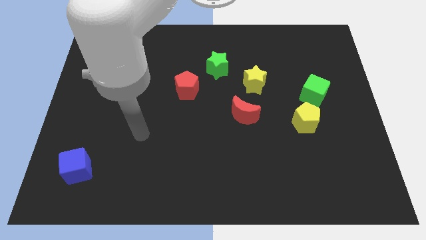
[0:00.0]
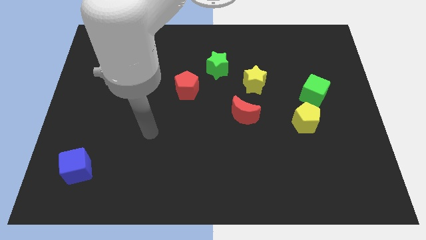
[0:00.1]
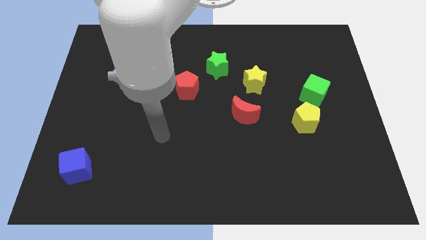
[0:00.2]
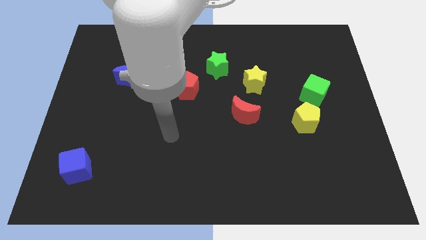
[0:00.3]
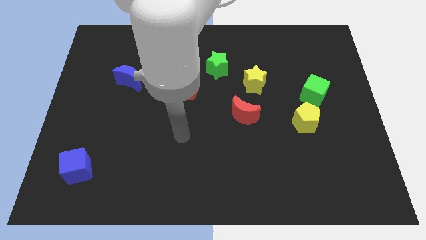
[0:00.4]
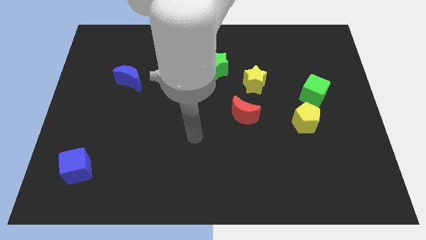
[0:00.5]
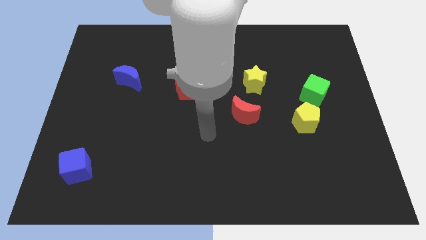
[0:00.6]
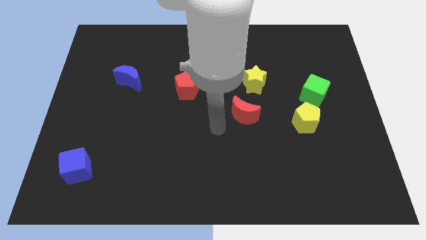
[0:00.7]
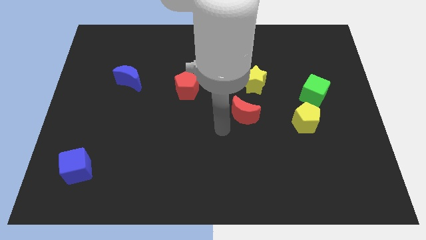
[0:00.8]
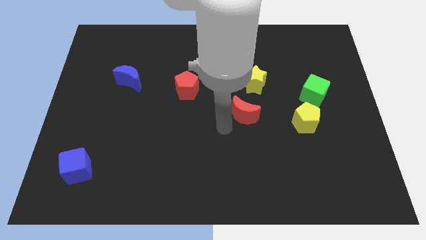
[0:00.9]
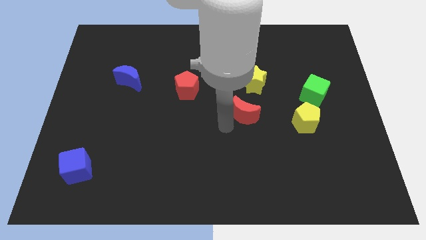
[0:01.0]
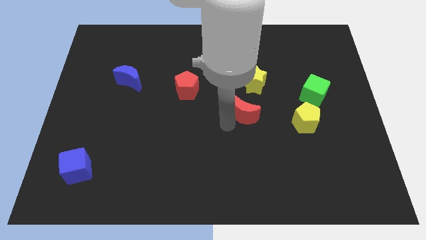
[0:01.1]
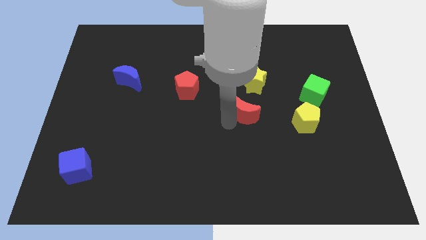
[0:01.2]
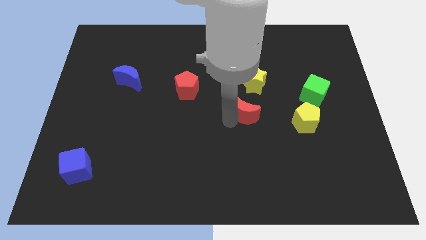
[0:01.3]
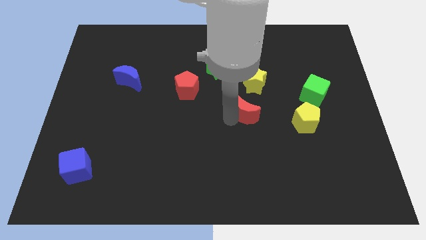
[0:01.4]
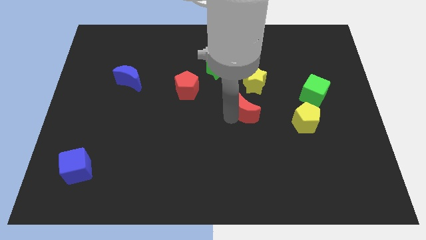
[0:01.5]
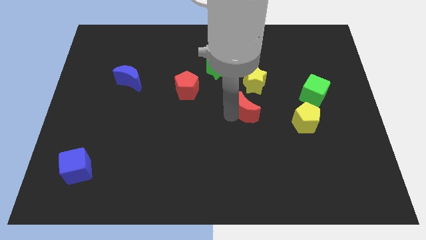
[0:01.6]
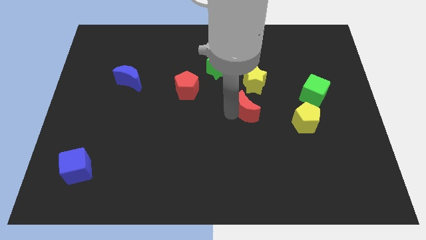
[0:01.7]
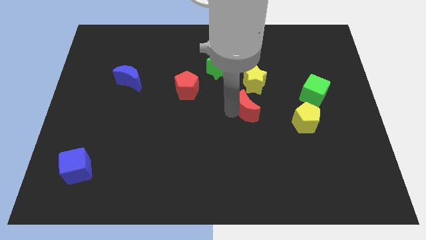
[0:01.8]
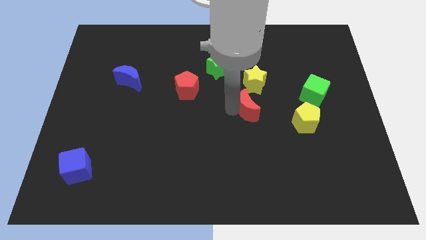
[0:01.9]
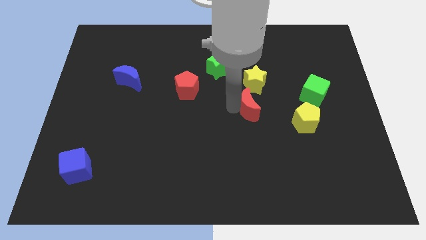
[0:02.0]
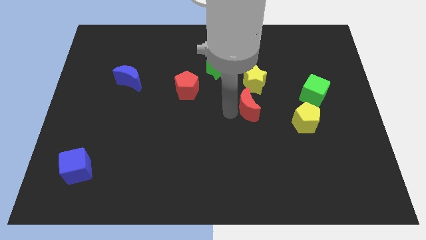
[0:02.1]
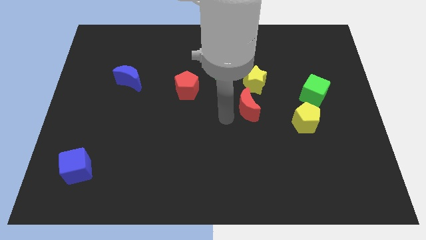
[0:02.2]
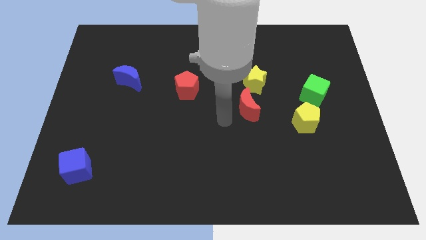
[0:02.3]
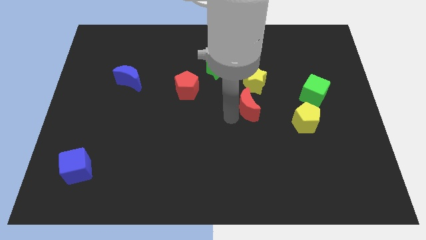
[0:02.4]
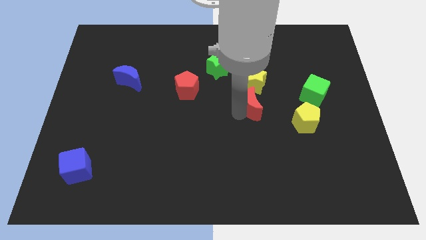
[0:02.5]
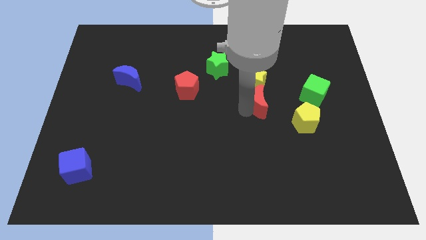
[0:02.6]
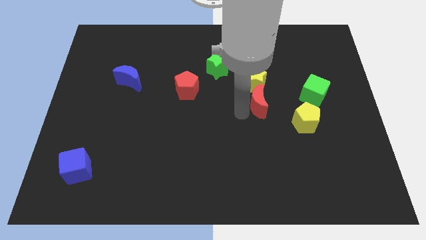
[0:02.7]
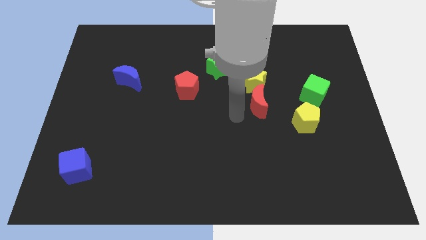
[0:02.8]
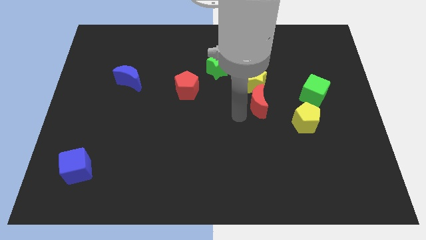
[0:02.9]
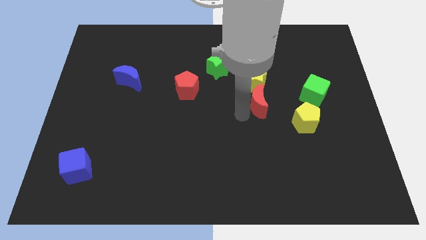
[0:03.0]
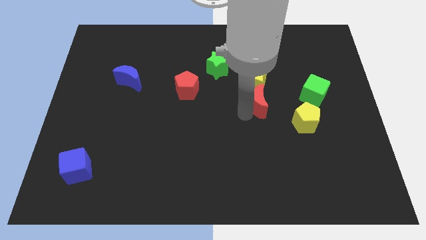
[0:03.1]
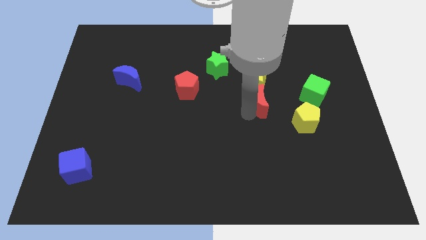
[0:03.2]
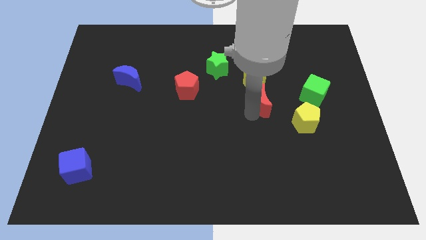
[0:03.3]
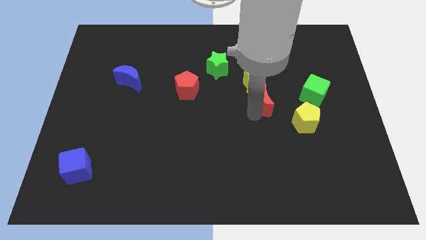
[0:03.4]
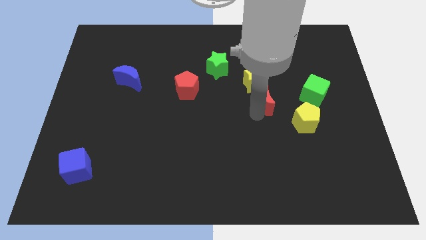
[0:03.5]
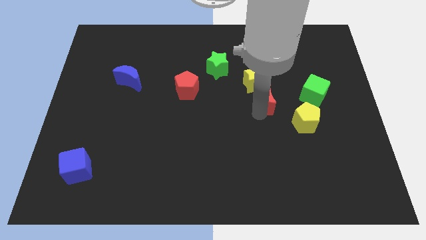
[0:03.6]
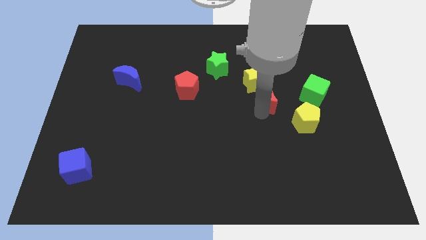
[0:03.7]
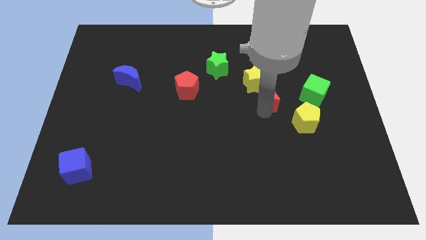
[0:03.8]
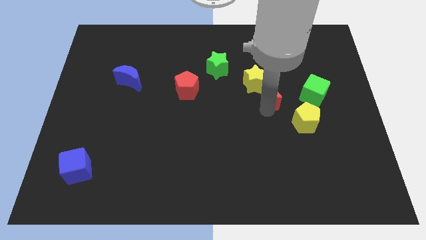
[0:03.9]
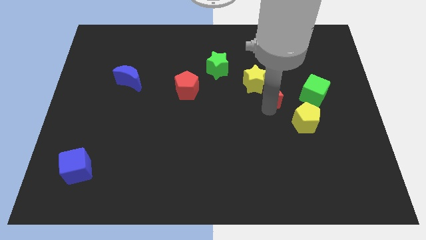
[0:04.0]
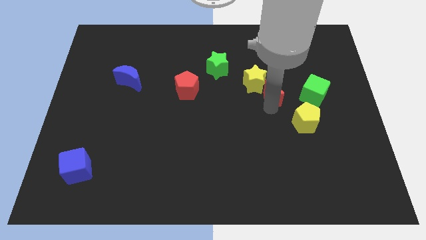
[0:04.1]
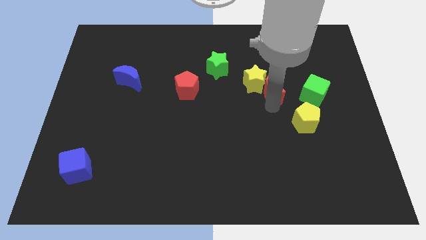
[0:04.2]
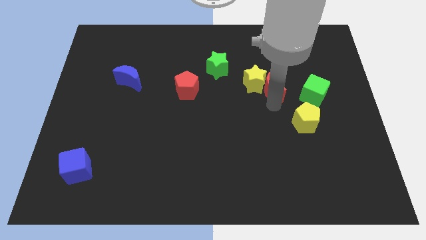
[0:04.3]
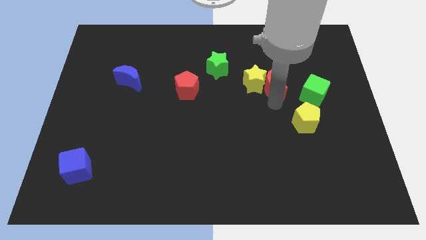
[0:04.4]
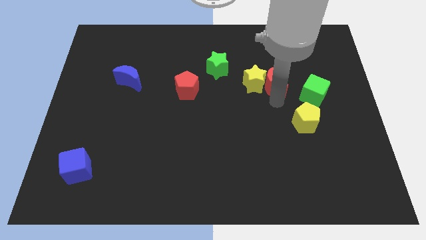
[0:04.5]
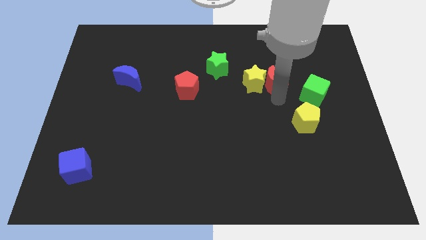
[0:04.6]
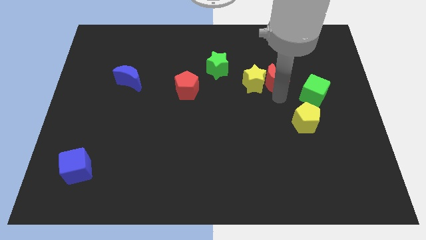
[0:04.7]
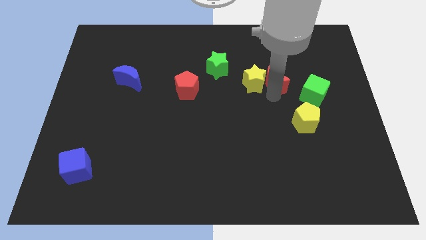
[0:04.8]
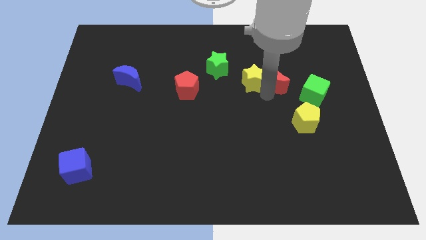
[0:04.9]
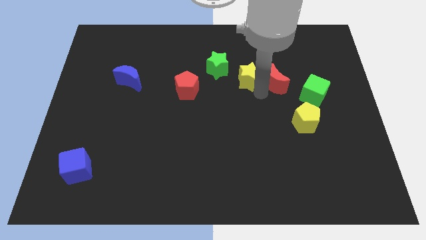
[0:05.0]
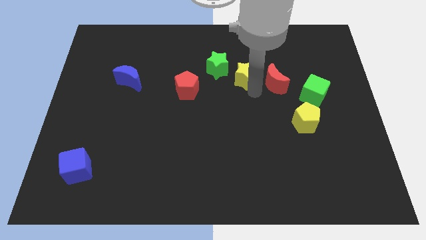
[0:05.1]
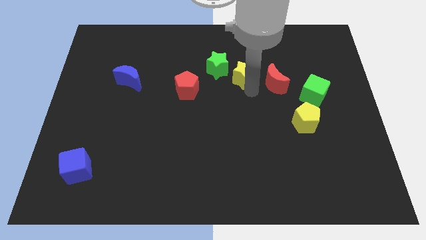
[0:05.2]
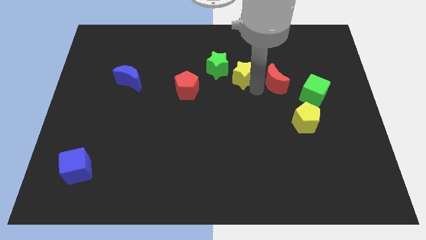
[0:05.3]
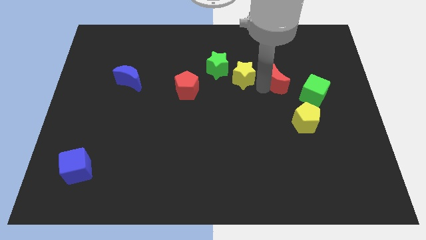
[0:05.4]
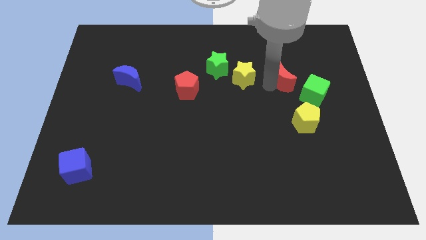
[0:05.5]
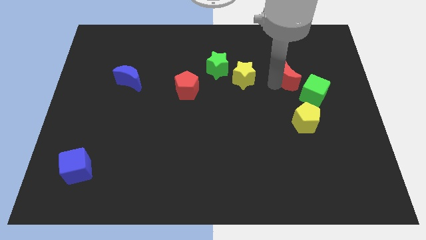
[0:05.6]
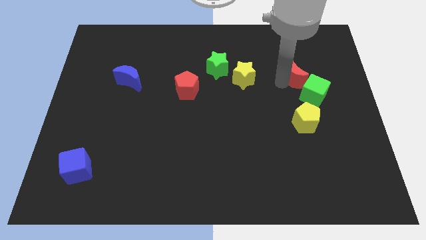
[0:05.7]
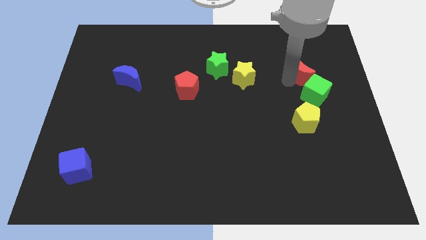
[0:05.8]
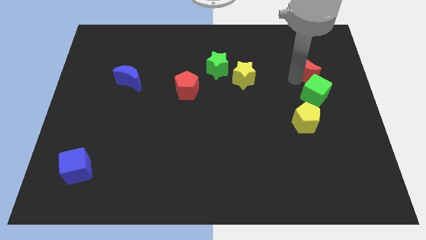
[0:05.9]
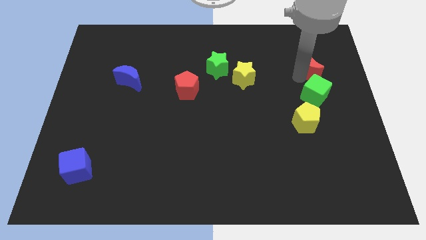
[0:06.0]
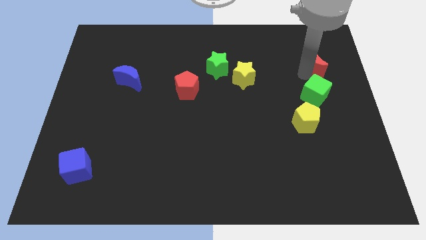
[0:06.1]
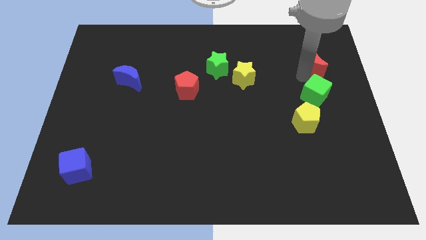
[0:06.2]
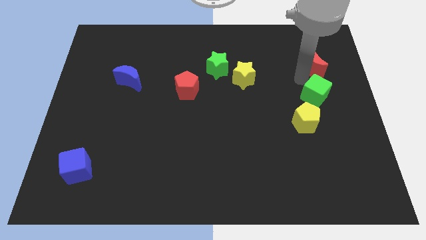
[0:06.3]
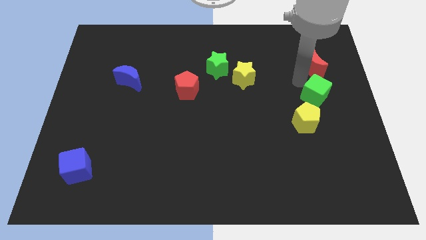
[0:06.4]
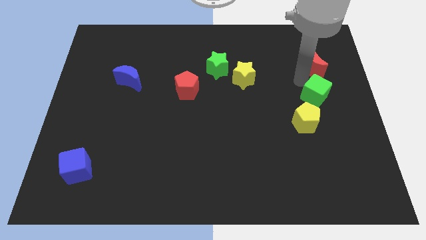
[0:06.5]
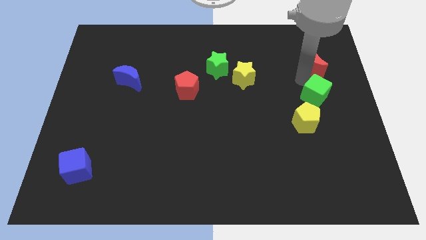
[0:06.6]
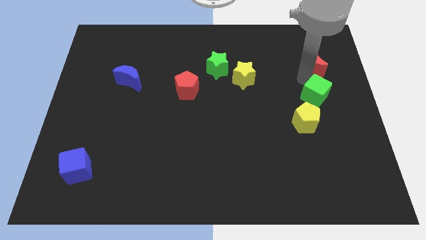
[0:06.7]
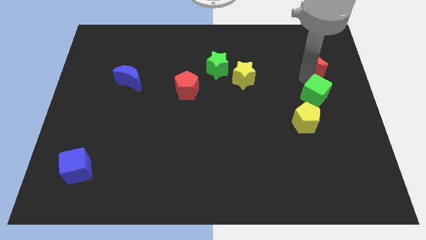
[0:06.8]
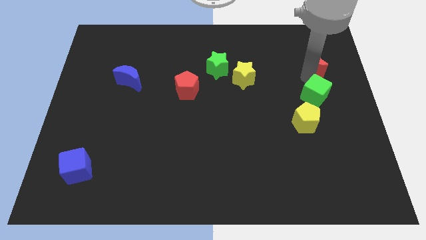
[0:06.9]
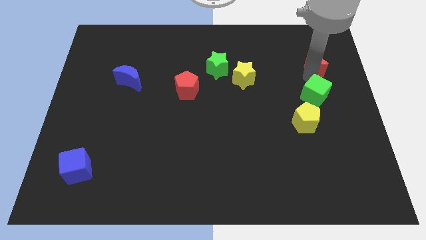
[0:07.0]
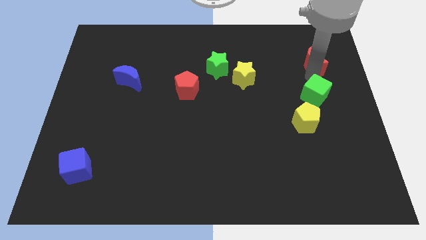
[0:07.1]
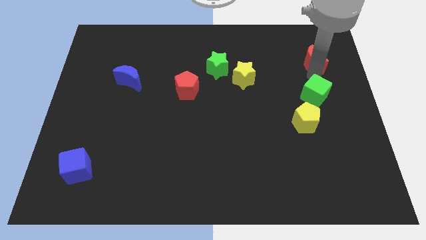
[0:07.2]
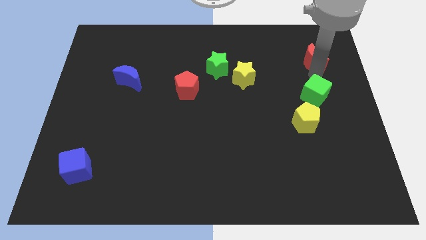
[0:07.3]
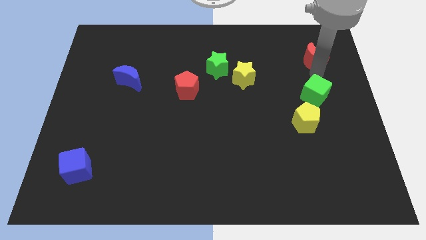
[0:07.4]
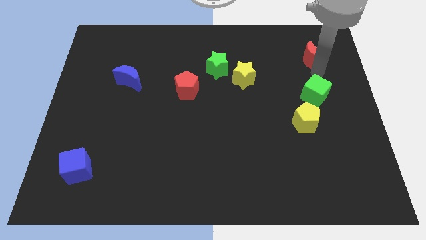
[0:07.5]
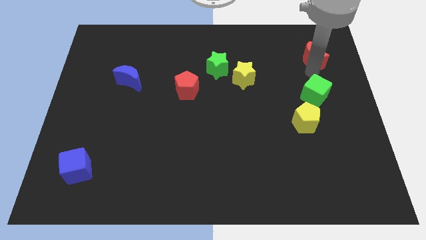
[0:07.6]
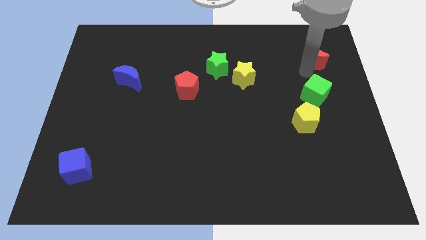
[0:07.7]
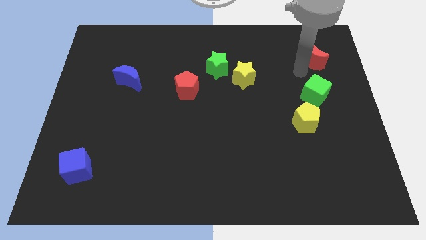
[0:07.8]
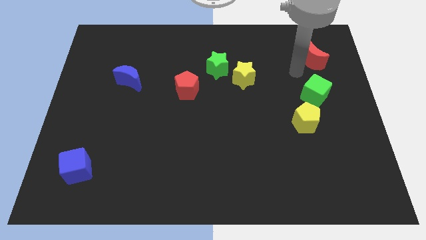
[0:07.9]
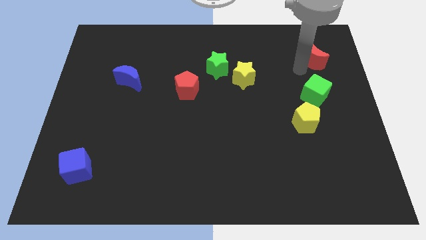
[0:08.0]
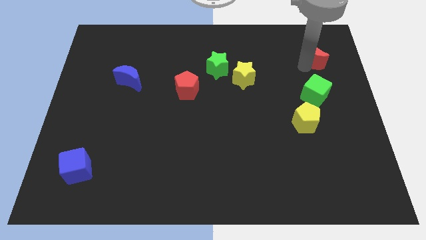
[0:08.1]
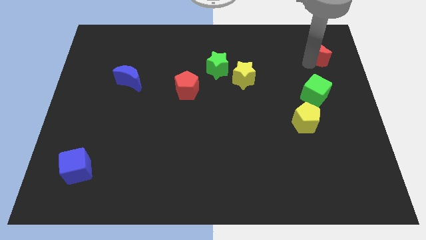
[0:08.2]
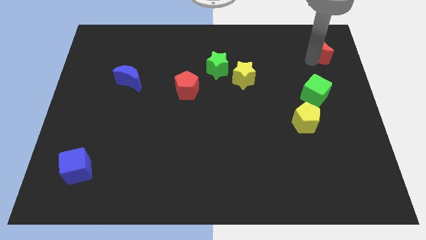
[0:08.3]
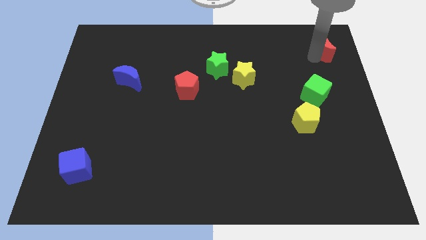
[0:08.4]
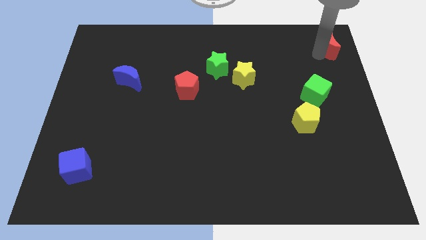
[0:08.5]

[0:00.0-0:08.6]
slide the red moon to the top right
